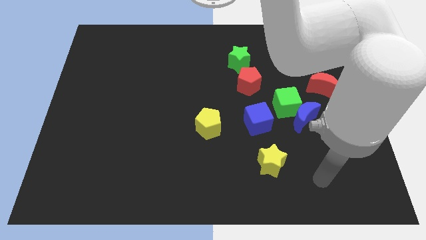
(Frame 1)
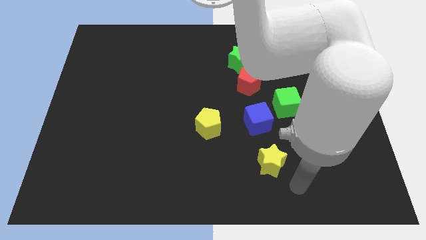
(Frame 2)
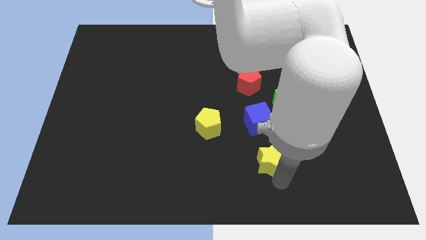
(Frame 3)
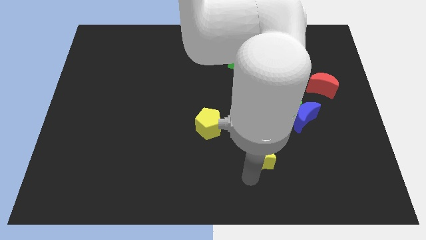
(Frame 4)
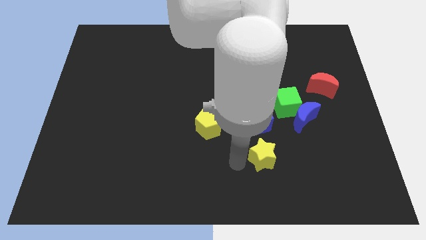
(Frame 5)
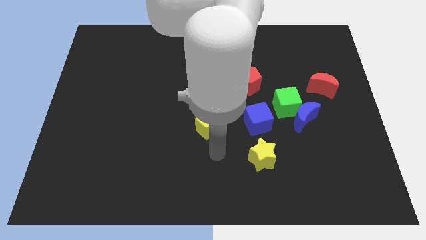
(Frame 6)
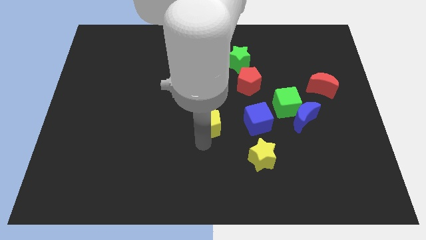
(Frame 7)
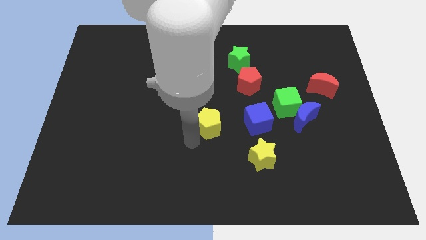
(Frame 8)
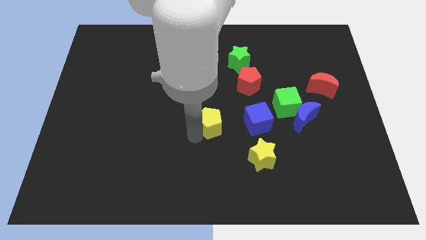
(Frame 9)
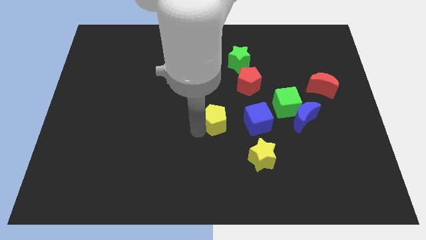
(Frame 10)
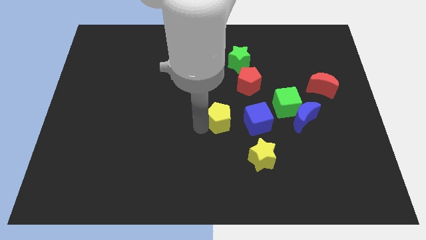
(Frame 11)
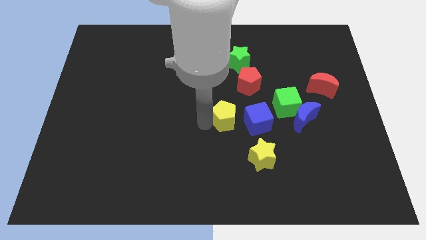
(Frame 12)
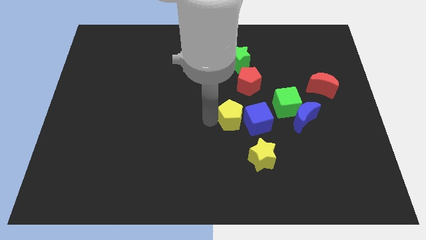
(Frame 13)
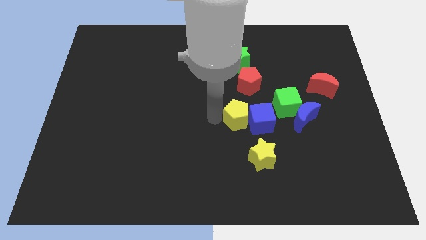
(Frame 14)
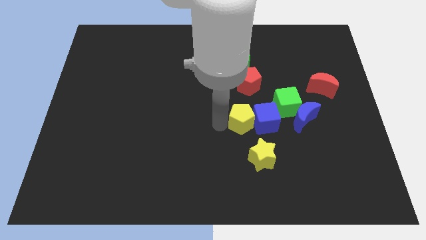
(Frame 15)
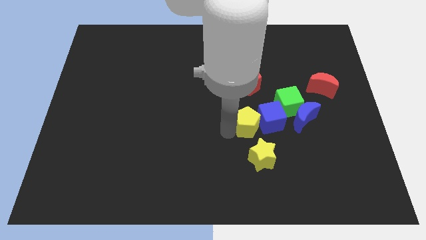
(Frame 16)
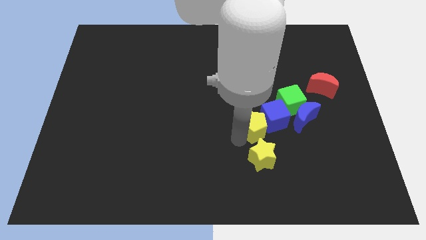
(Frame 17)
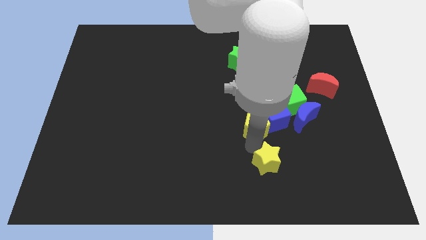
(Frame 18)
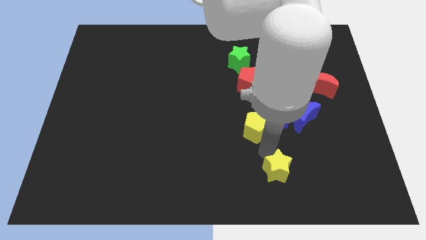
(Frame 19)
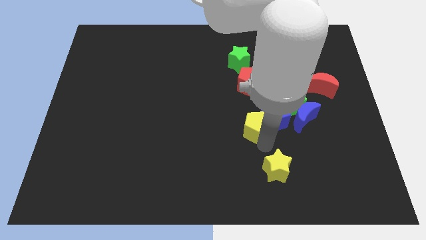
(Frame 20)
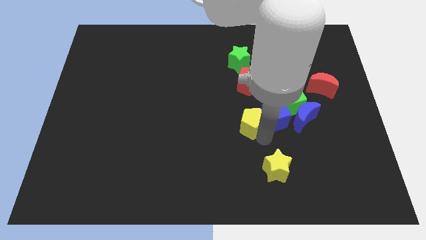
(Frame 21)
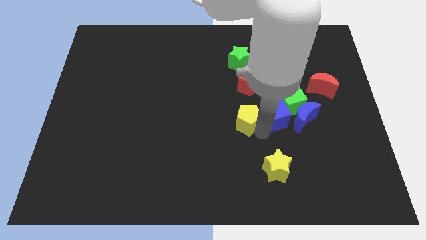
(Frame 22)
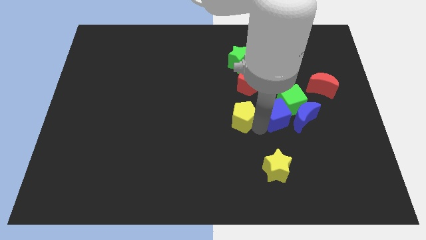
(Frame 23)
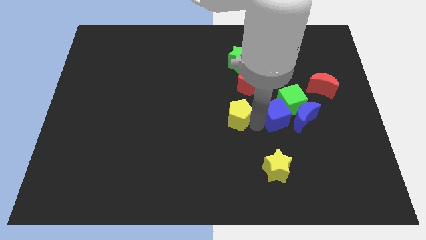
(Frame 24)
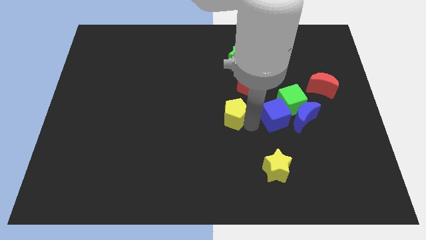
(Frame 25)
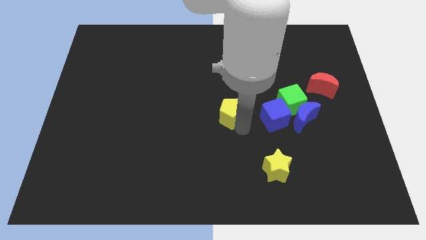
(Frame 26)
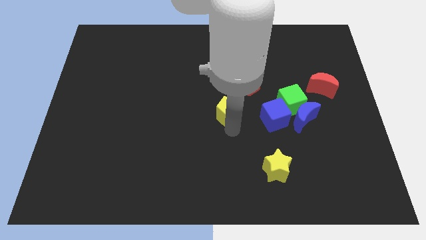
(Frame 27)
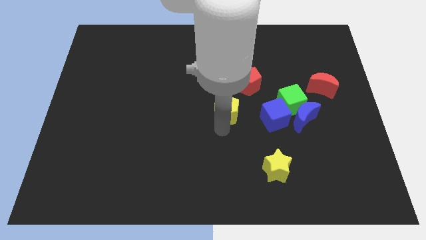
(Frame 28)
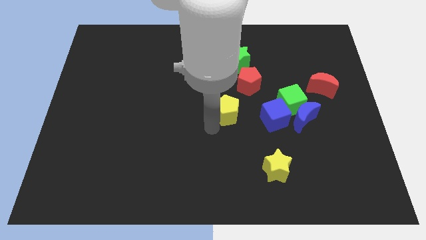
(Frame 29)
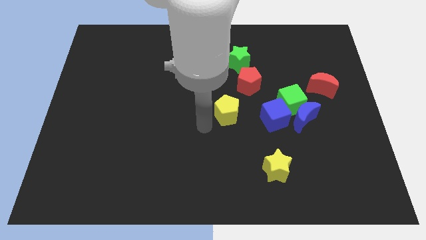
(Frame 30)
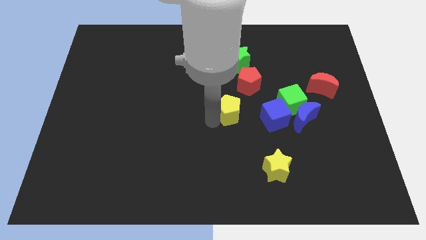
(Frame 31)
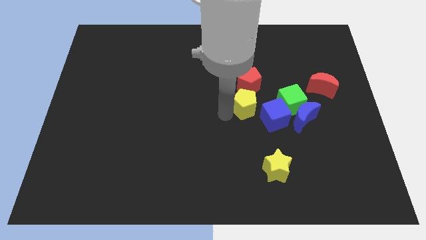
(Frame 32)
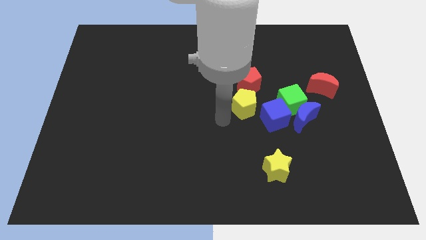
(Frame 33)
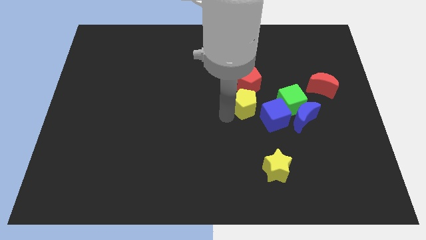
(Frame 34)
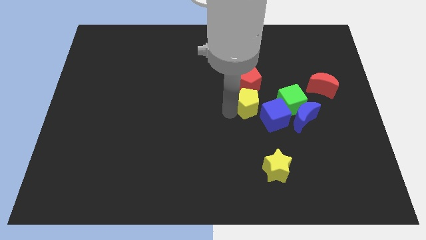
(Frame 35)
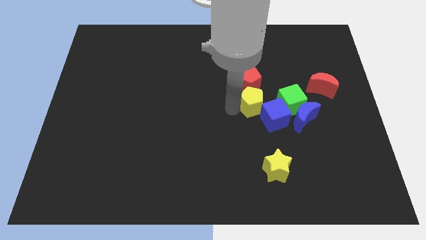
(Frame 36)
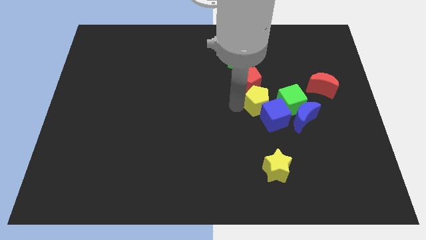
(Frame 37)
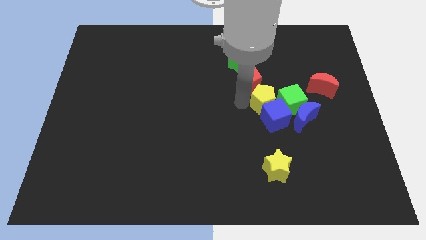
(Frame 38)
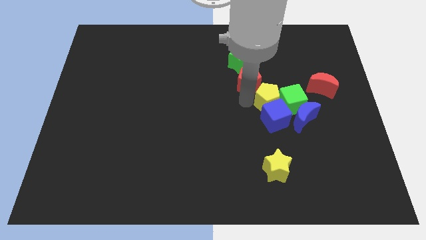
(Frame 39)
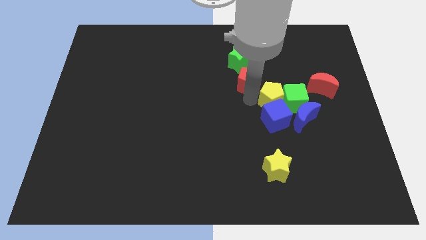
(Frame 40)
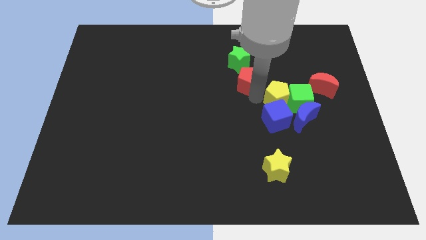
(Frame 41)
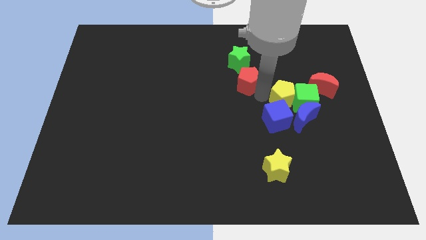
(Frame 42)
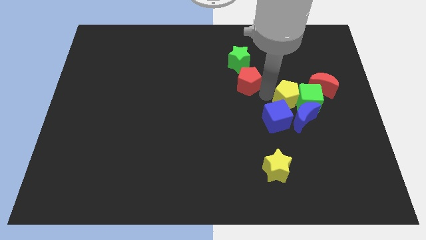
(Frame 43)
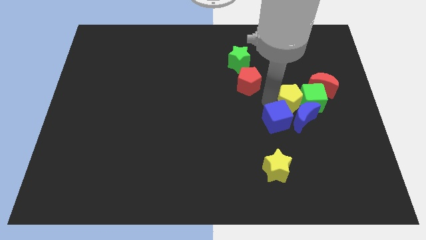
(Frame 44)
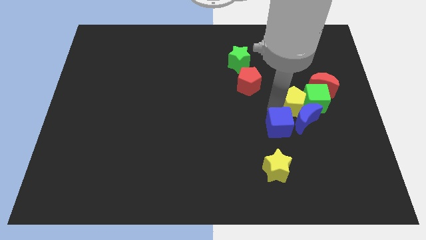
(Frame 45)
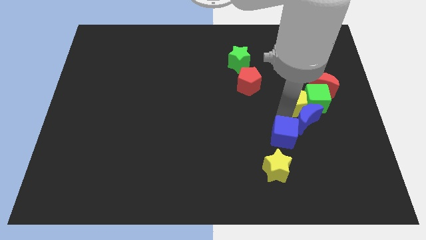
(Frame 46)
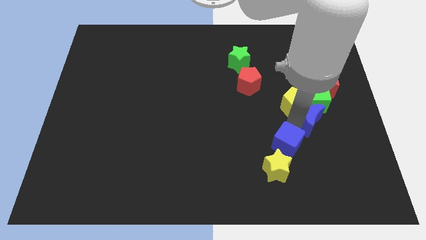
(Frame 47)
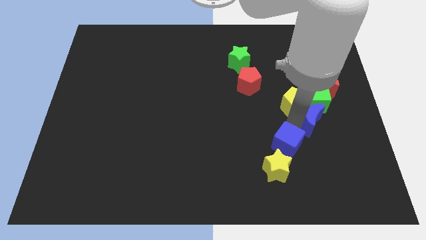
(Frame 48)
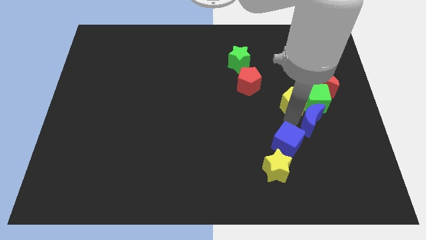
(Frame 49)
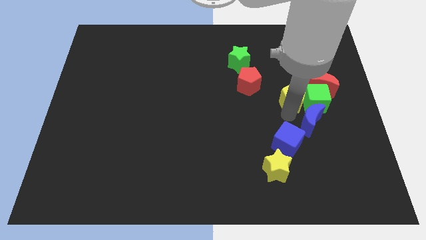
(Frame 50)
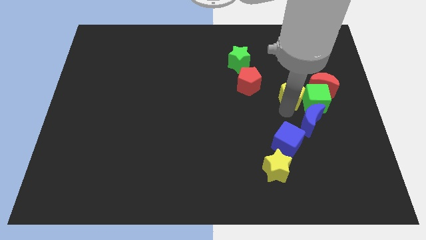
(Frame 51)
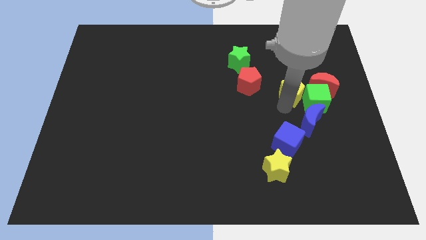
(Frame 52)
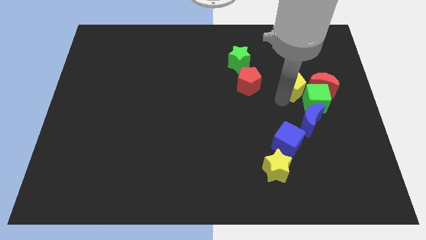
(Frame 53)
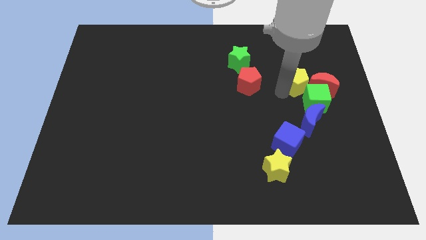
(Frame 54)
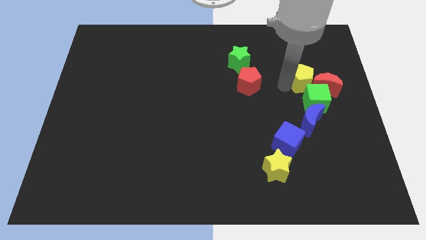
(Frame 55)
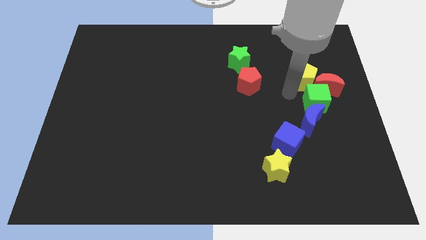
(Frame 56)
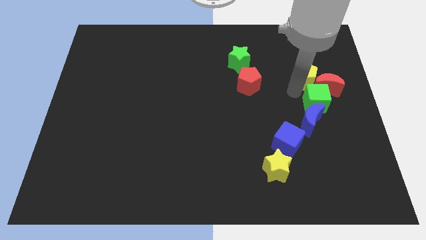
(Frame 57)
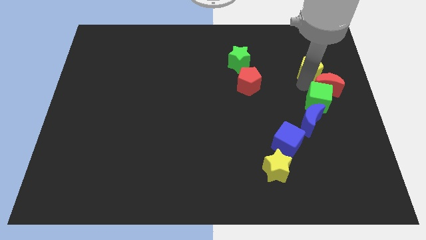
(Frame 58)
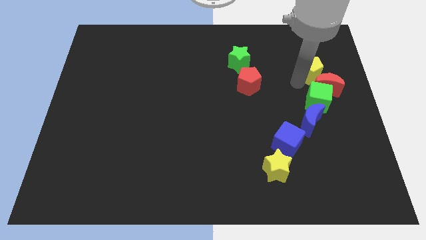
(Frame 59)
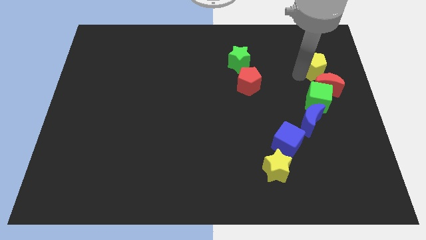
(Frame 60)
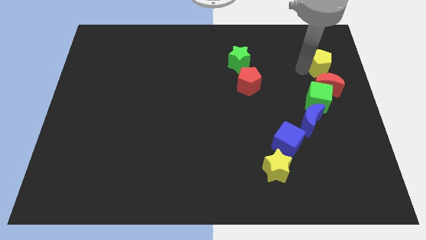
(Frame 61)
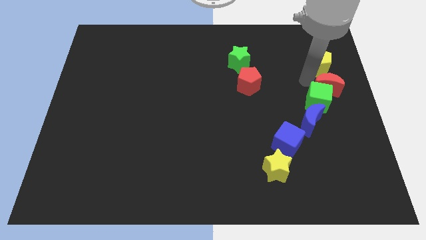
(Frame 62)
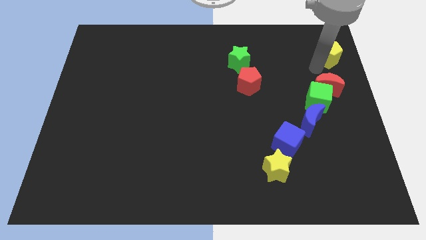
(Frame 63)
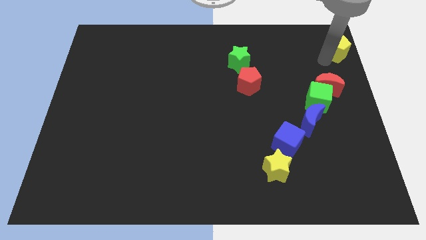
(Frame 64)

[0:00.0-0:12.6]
move the yellow pentagon to the top right of the board
